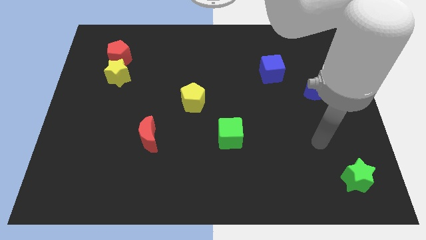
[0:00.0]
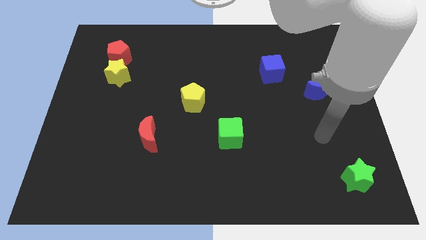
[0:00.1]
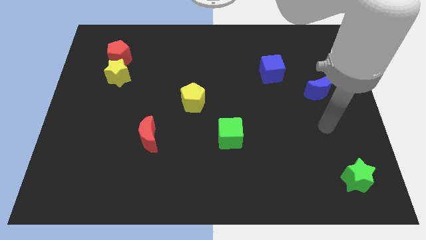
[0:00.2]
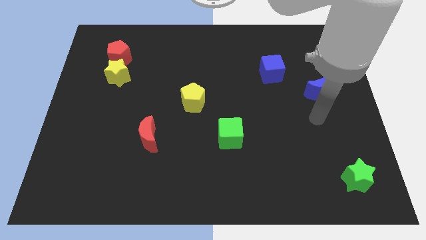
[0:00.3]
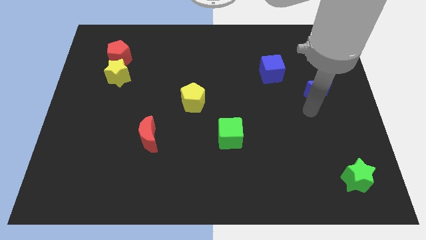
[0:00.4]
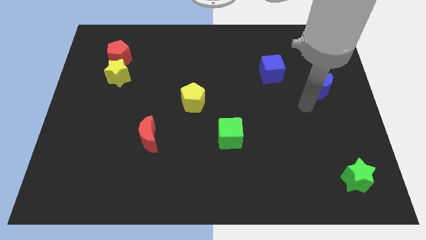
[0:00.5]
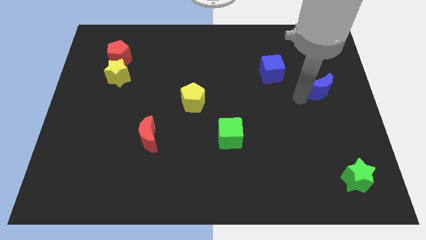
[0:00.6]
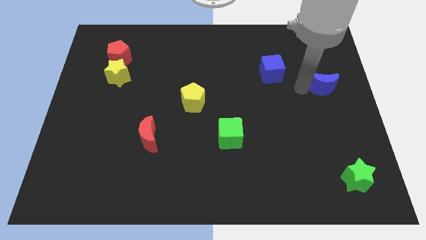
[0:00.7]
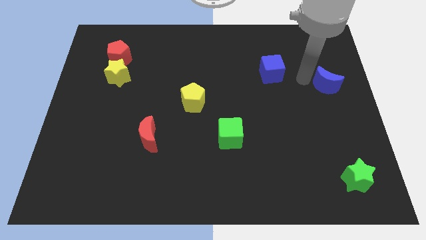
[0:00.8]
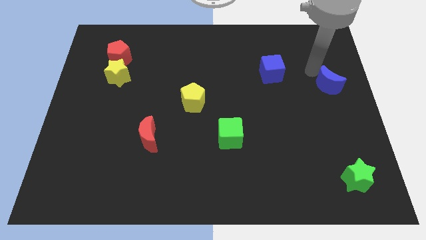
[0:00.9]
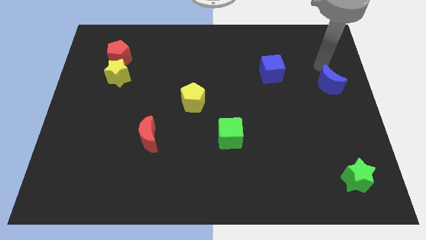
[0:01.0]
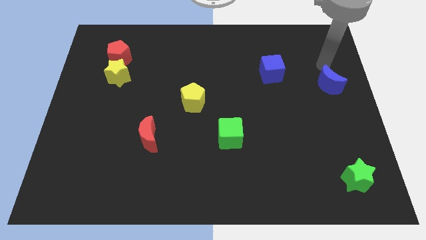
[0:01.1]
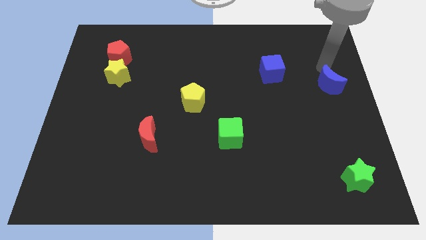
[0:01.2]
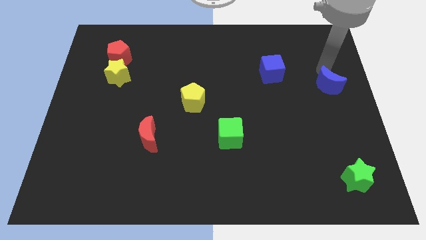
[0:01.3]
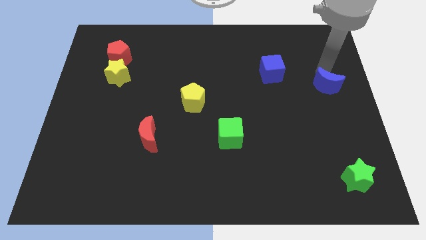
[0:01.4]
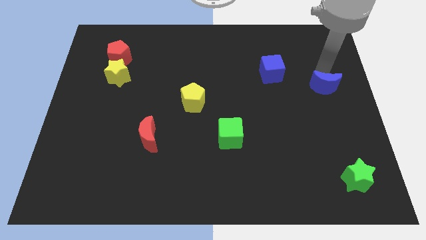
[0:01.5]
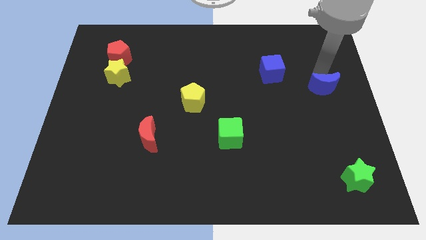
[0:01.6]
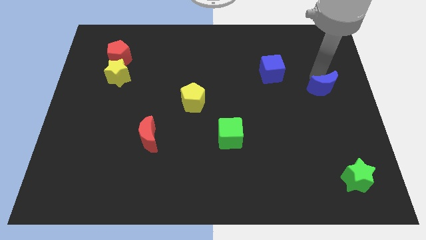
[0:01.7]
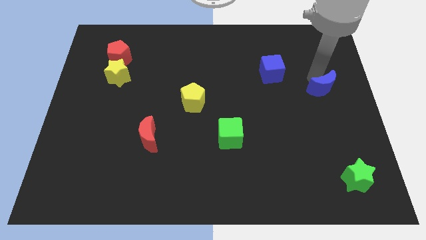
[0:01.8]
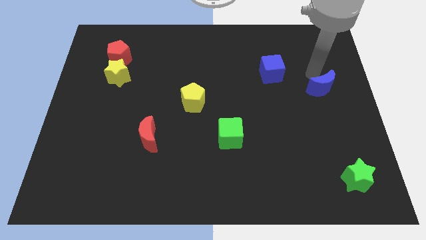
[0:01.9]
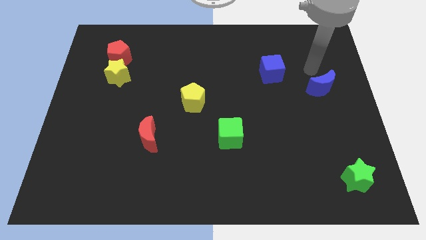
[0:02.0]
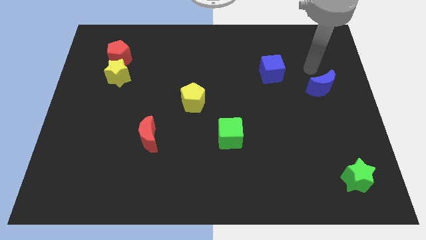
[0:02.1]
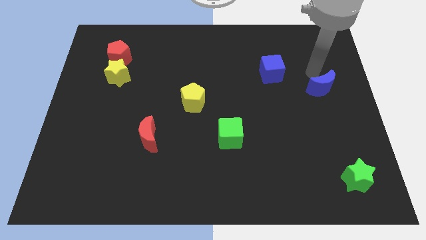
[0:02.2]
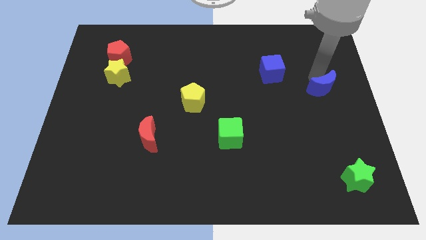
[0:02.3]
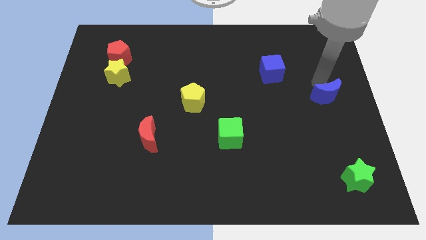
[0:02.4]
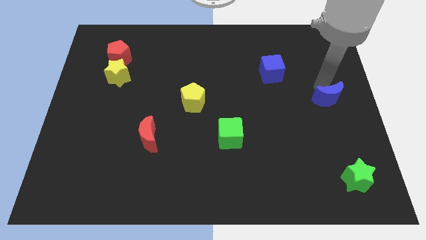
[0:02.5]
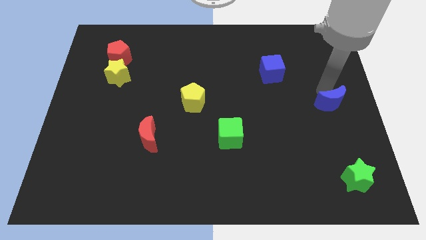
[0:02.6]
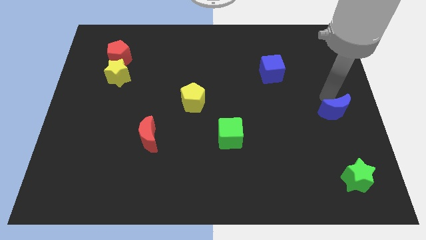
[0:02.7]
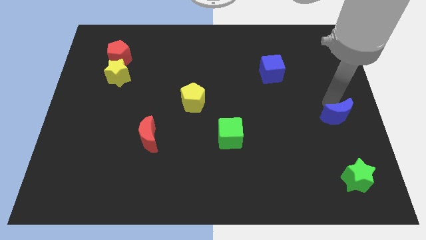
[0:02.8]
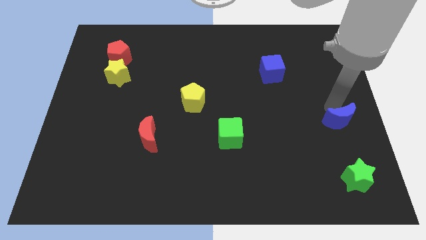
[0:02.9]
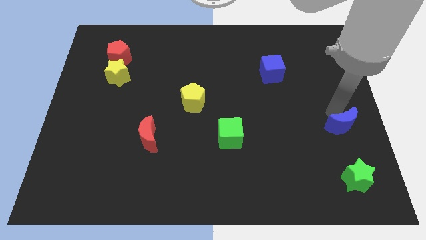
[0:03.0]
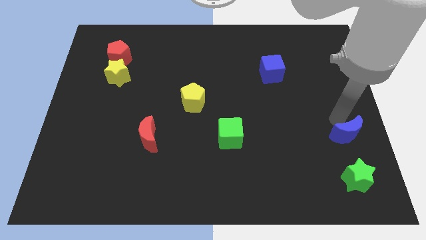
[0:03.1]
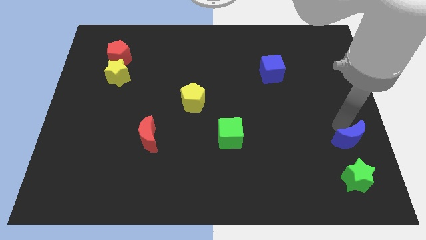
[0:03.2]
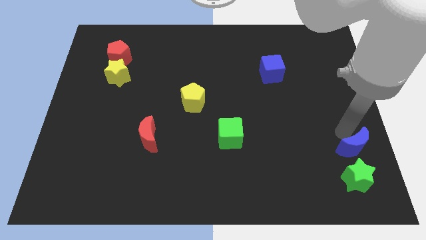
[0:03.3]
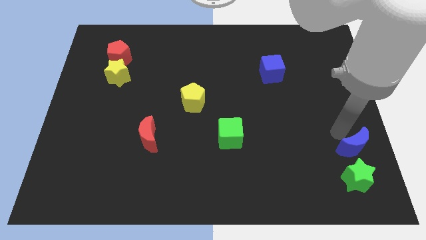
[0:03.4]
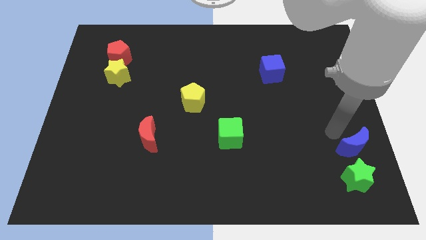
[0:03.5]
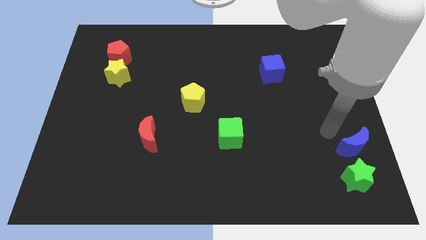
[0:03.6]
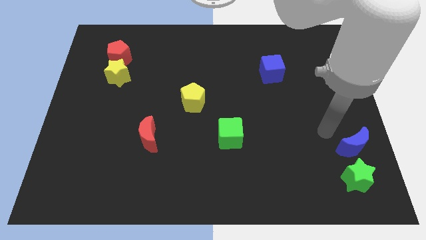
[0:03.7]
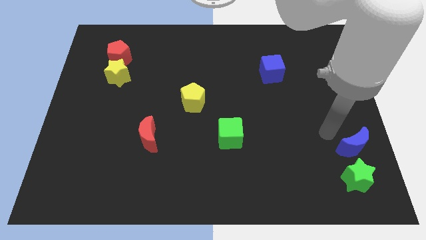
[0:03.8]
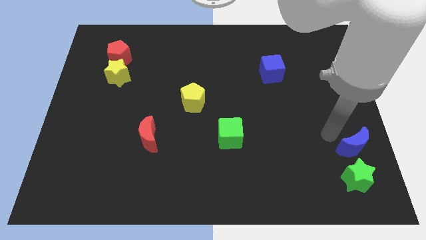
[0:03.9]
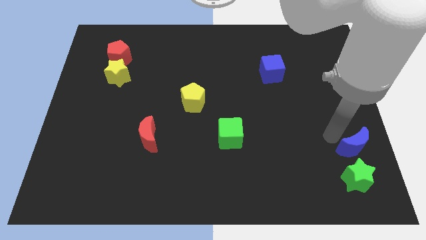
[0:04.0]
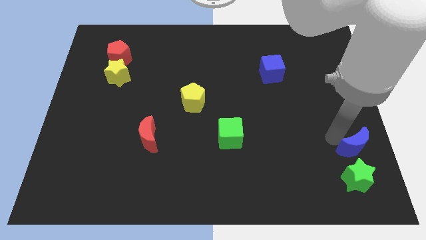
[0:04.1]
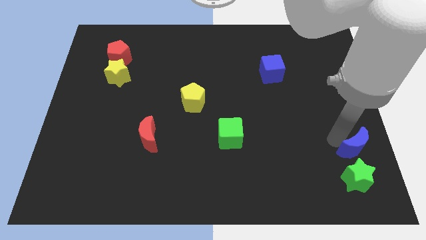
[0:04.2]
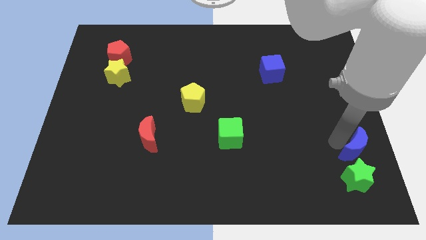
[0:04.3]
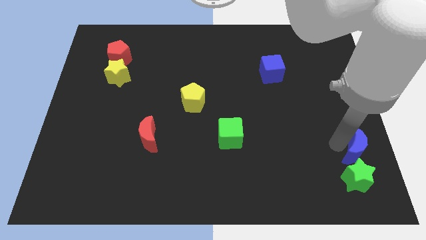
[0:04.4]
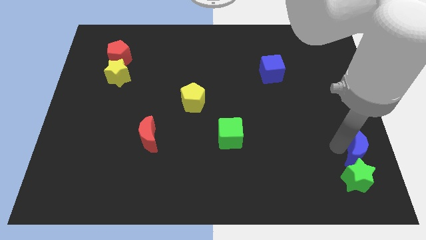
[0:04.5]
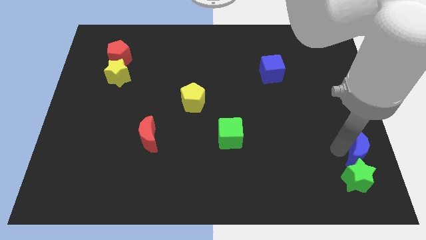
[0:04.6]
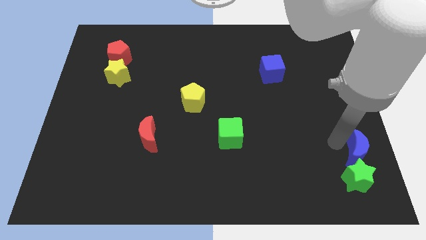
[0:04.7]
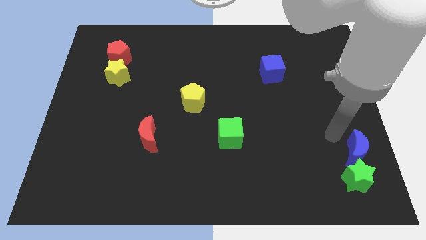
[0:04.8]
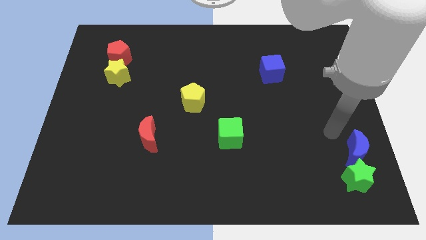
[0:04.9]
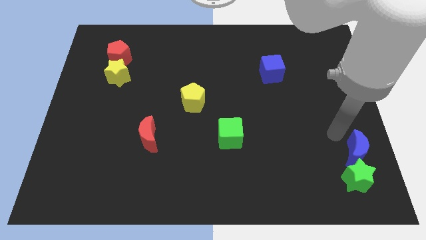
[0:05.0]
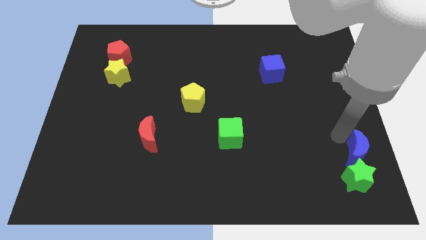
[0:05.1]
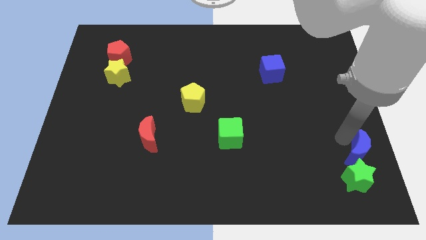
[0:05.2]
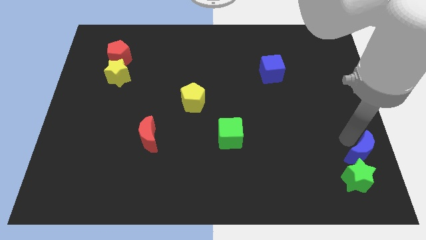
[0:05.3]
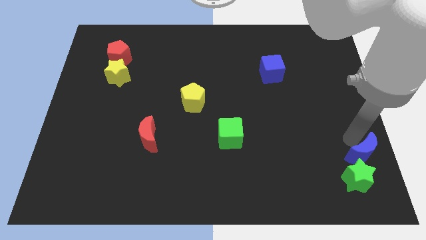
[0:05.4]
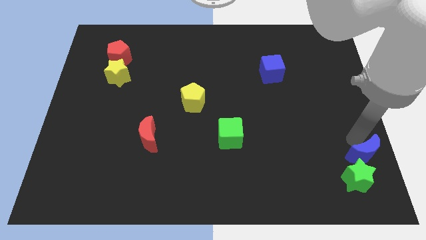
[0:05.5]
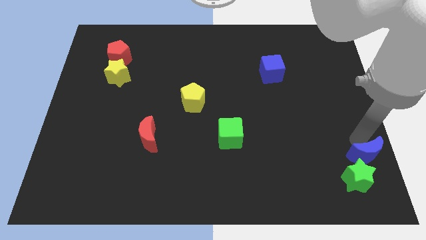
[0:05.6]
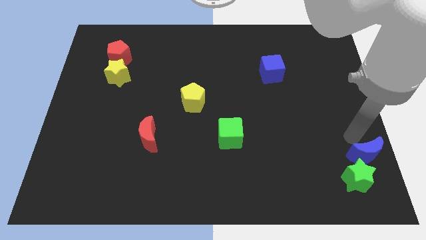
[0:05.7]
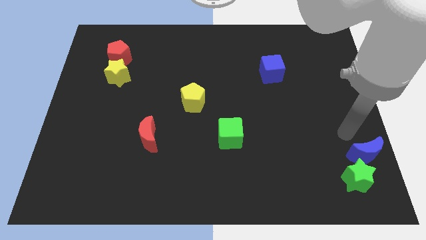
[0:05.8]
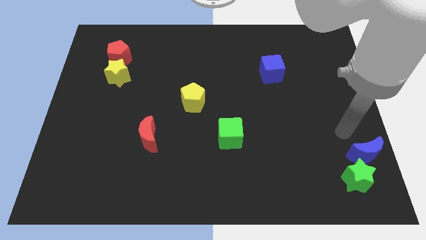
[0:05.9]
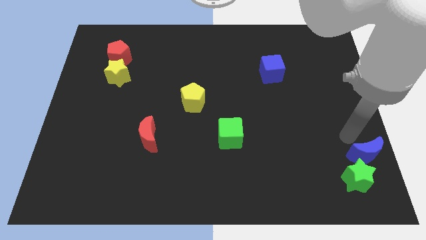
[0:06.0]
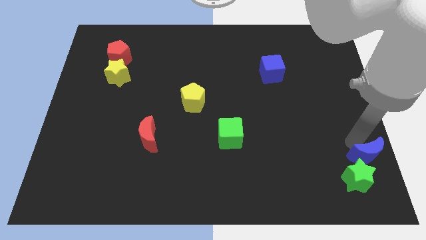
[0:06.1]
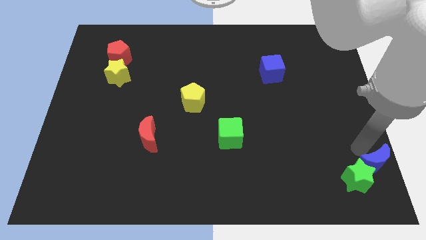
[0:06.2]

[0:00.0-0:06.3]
move the blue moon to the bottom right corner

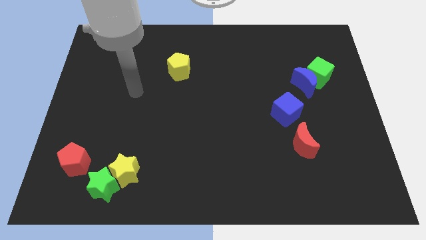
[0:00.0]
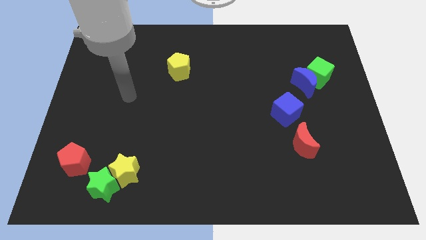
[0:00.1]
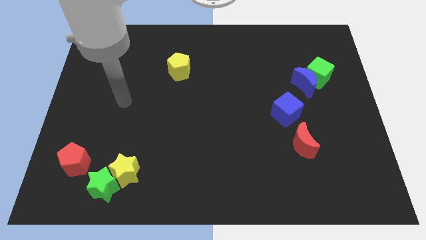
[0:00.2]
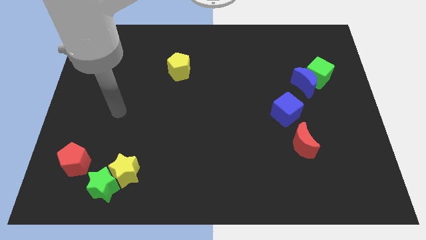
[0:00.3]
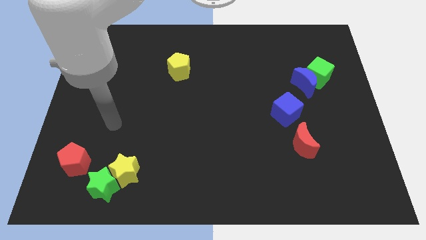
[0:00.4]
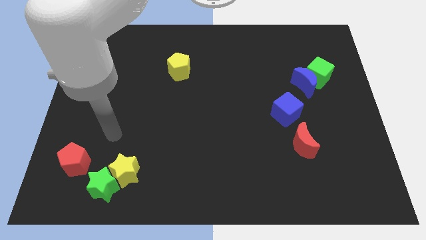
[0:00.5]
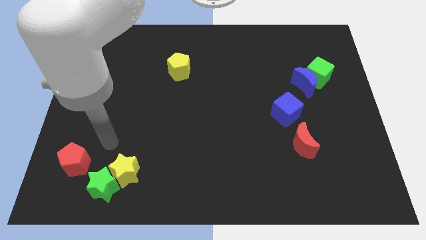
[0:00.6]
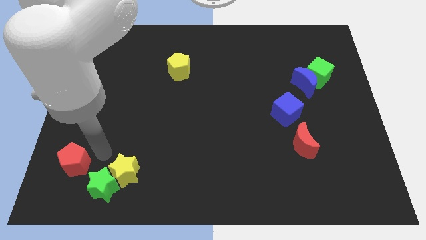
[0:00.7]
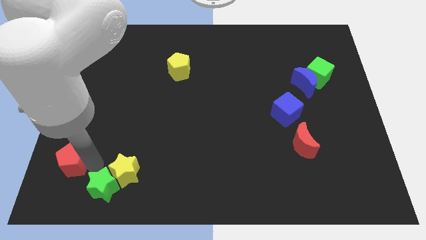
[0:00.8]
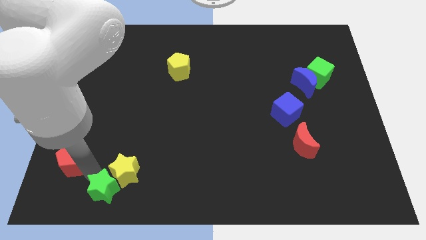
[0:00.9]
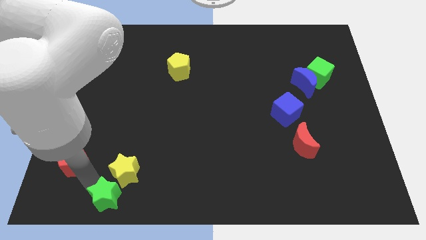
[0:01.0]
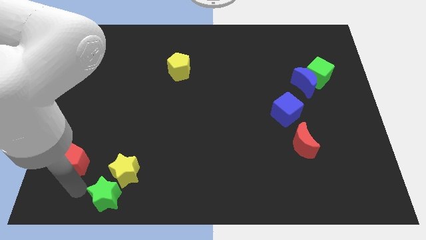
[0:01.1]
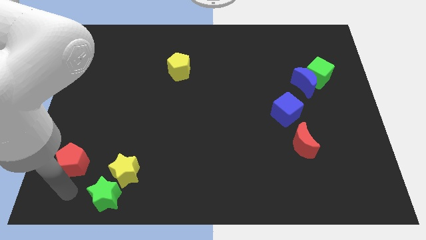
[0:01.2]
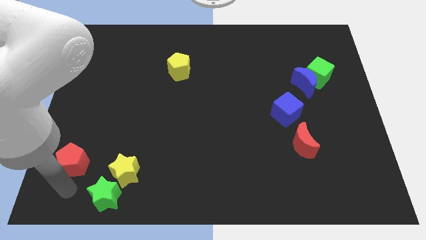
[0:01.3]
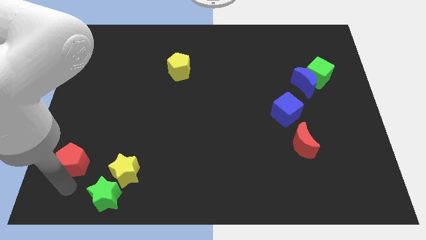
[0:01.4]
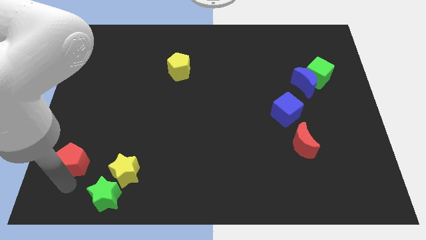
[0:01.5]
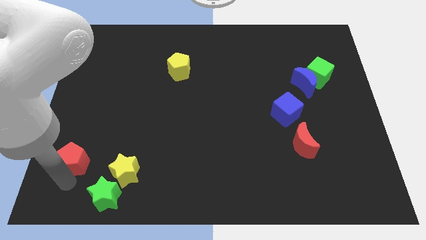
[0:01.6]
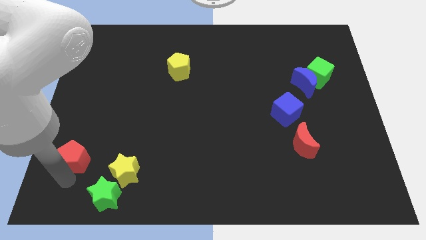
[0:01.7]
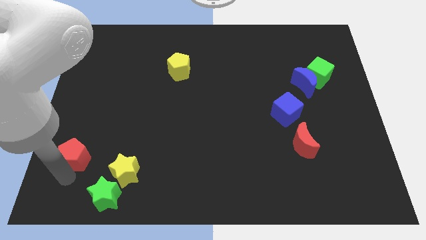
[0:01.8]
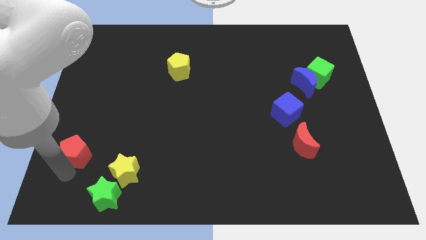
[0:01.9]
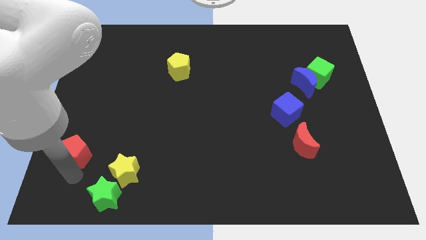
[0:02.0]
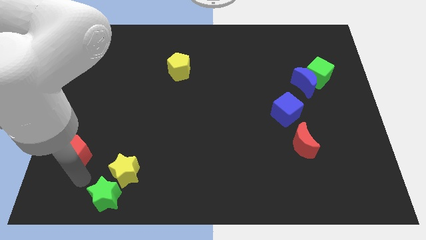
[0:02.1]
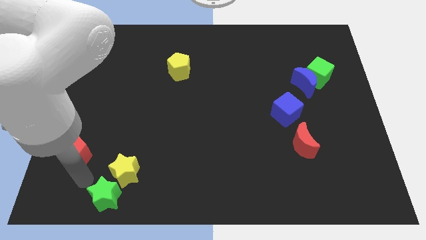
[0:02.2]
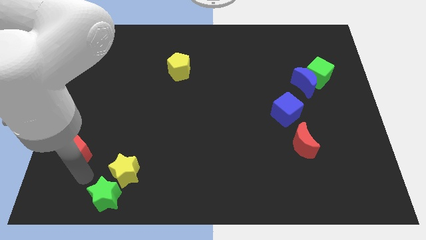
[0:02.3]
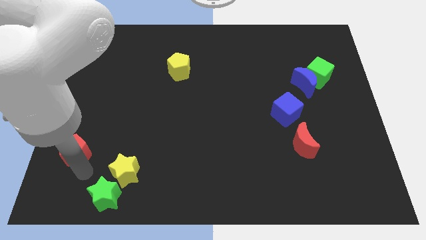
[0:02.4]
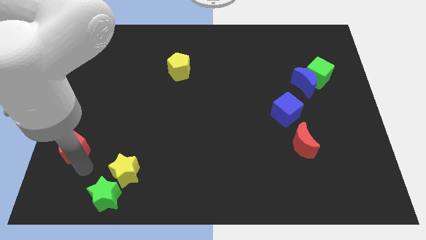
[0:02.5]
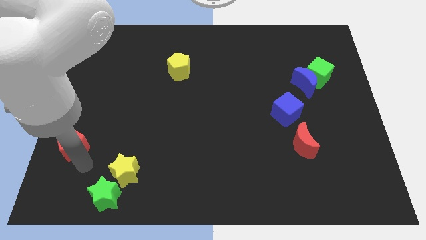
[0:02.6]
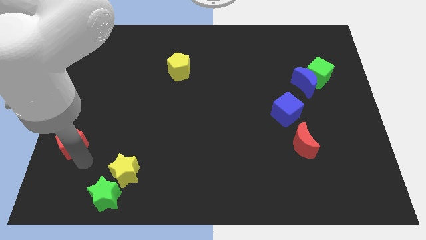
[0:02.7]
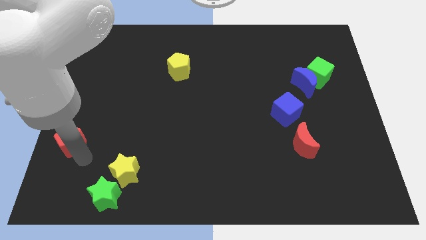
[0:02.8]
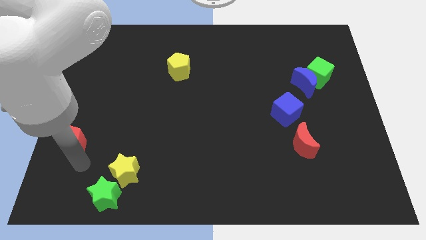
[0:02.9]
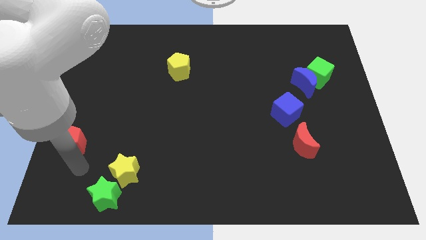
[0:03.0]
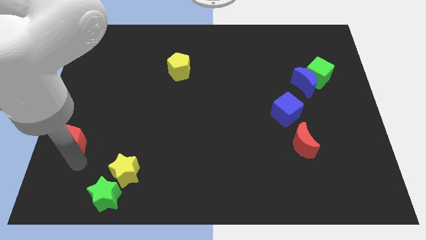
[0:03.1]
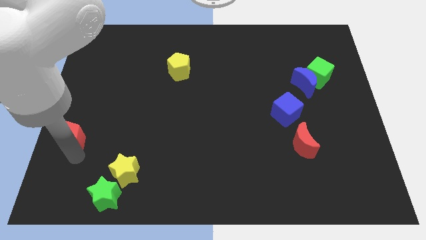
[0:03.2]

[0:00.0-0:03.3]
move the red pentagon to the left side of the board
